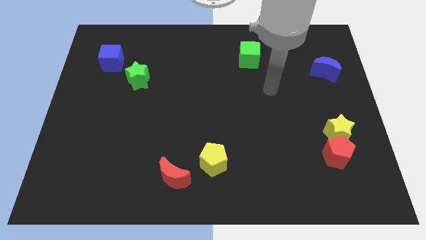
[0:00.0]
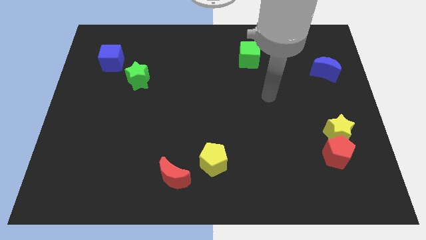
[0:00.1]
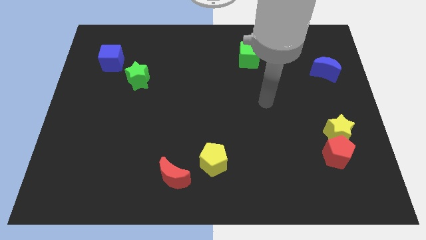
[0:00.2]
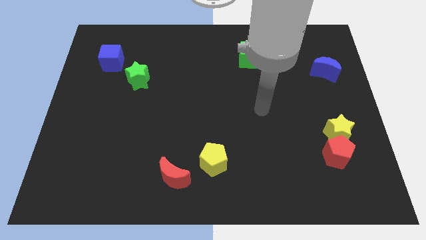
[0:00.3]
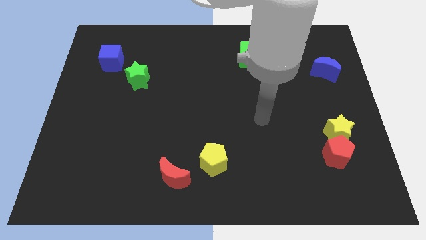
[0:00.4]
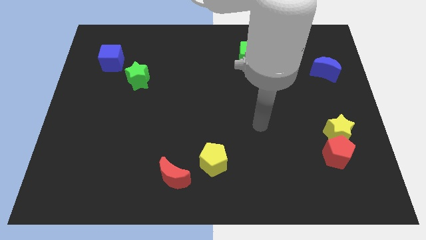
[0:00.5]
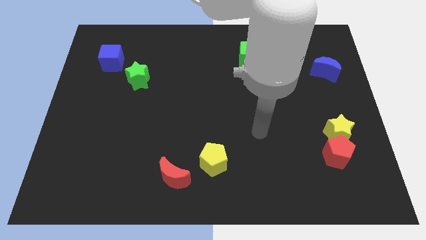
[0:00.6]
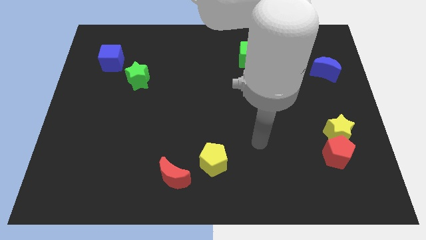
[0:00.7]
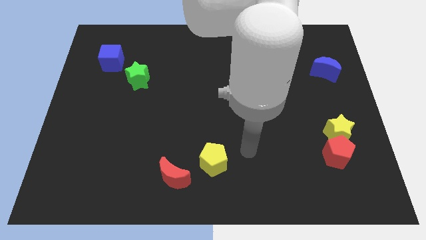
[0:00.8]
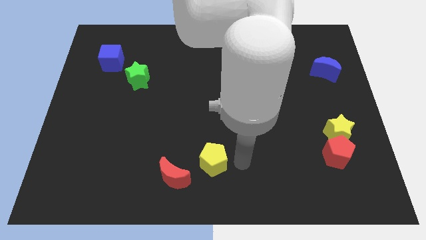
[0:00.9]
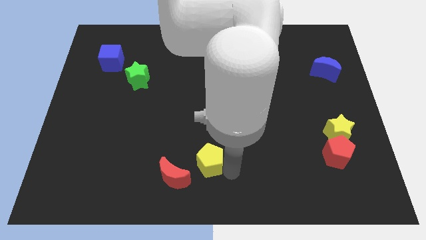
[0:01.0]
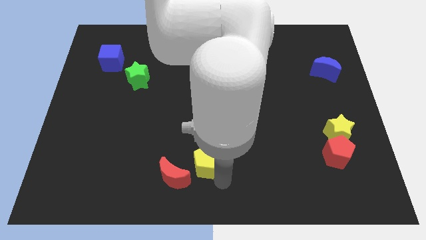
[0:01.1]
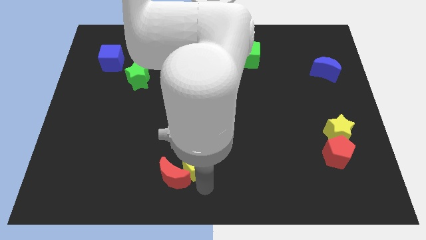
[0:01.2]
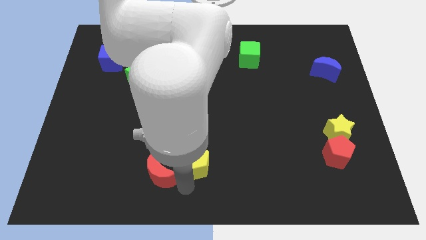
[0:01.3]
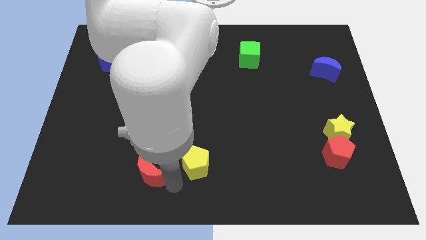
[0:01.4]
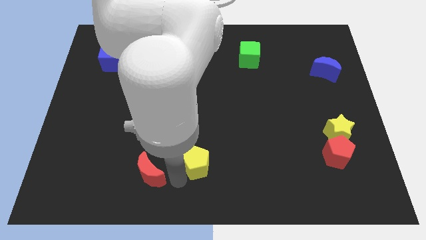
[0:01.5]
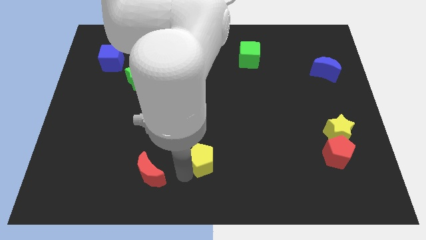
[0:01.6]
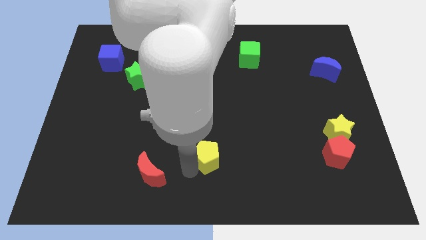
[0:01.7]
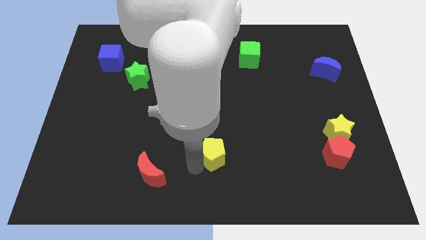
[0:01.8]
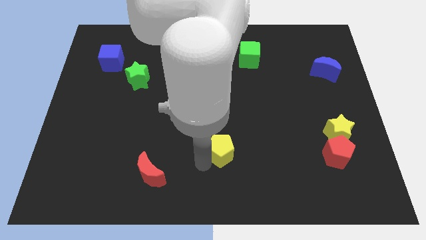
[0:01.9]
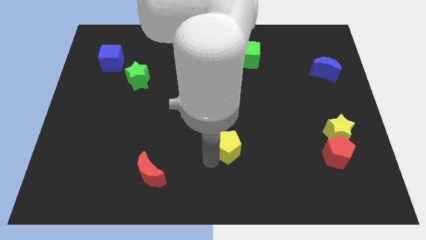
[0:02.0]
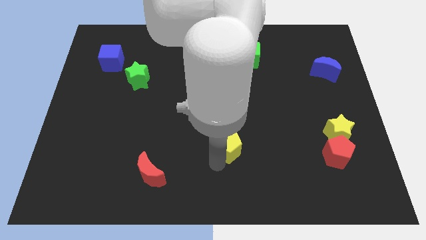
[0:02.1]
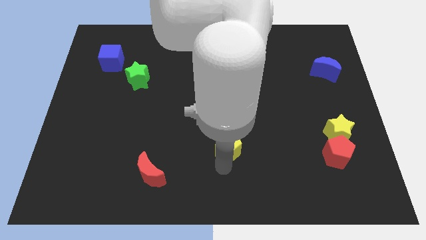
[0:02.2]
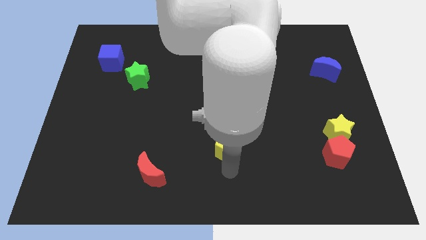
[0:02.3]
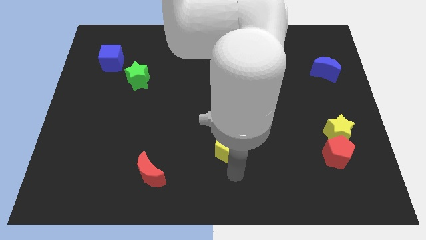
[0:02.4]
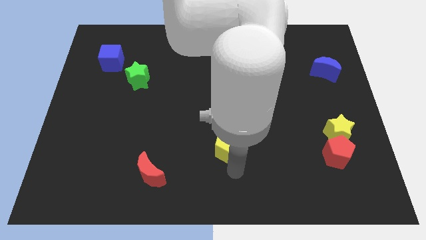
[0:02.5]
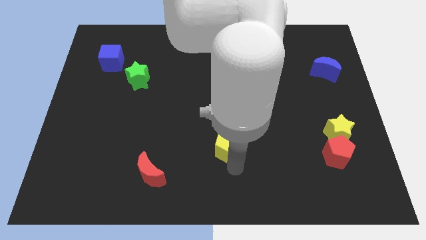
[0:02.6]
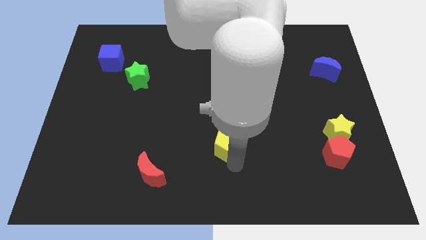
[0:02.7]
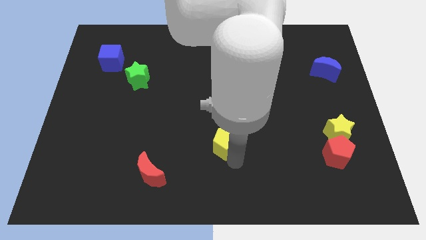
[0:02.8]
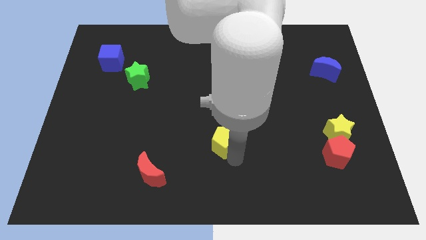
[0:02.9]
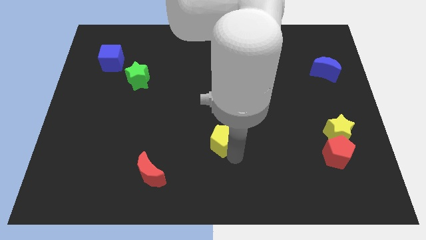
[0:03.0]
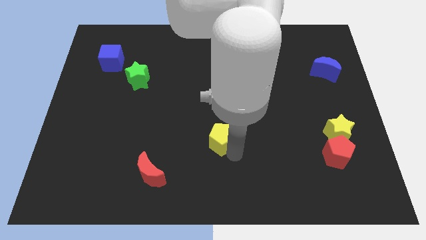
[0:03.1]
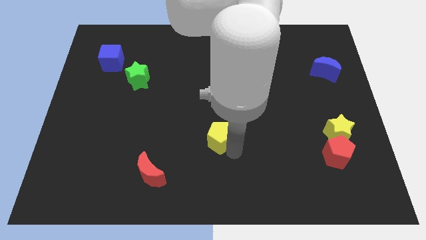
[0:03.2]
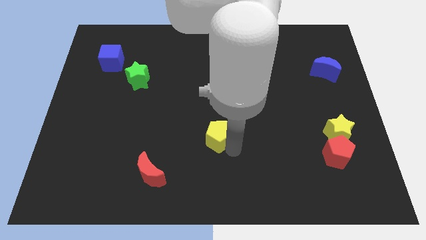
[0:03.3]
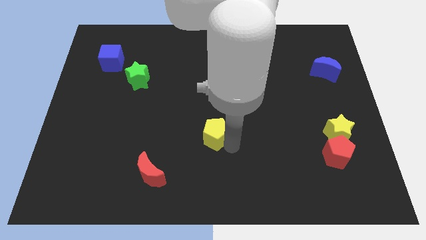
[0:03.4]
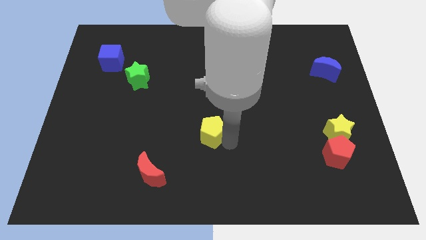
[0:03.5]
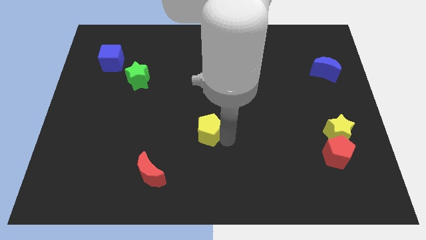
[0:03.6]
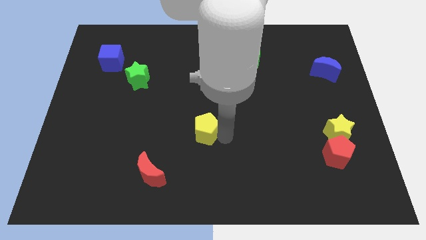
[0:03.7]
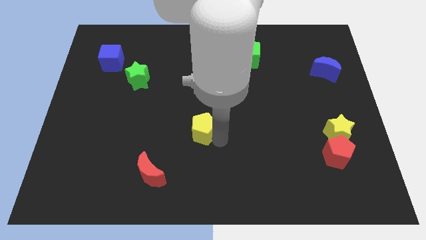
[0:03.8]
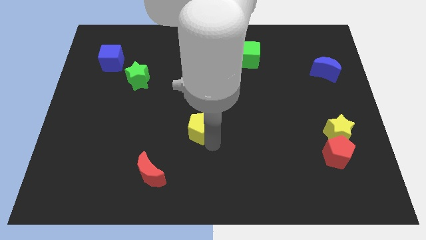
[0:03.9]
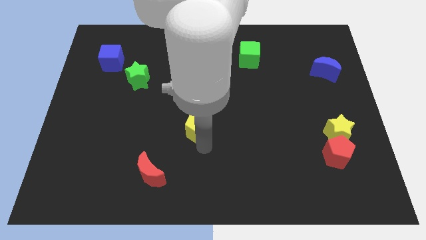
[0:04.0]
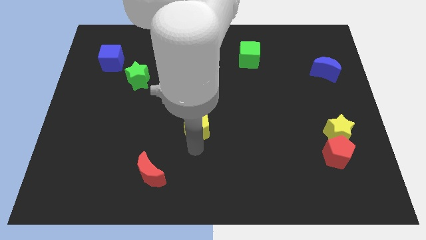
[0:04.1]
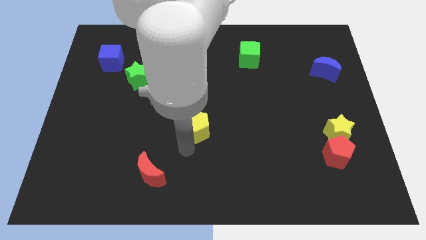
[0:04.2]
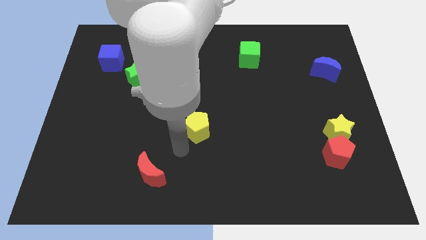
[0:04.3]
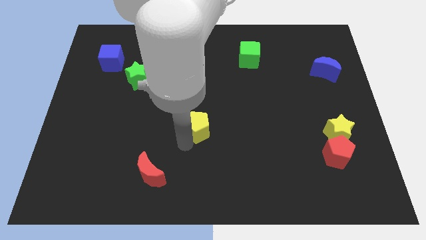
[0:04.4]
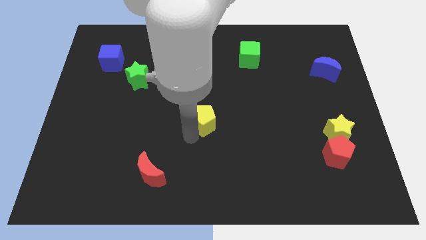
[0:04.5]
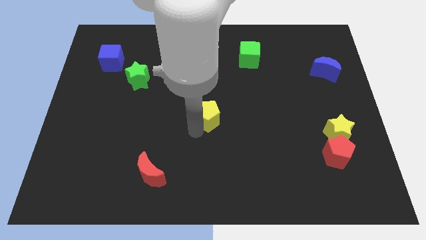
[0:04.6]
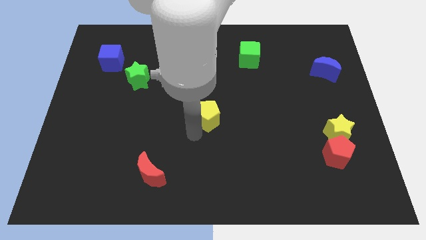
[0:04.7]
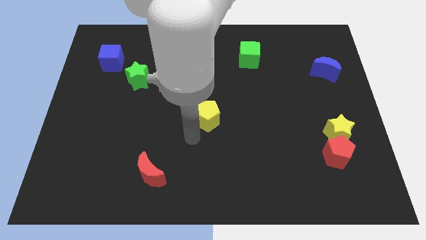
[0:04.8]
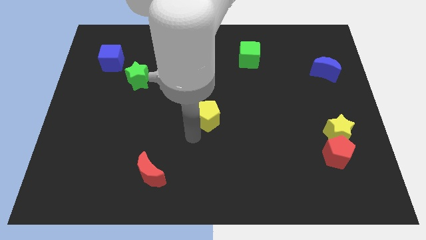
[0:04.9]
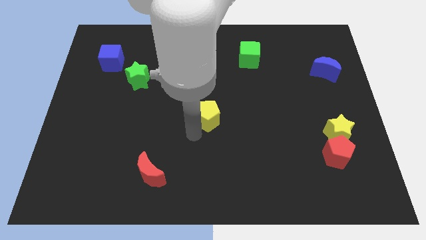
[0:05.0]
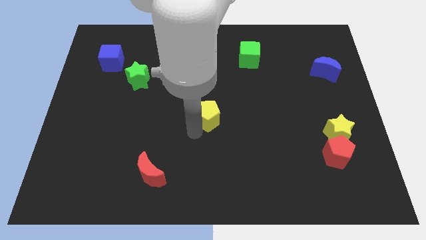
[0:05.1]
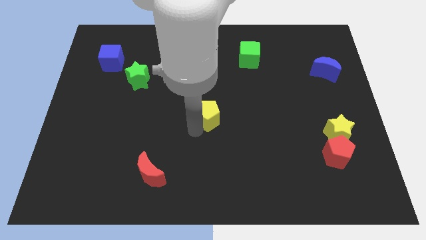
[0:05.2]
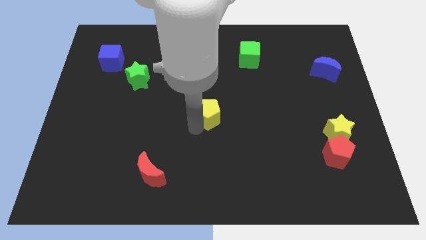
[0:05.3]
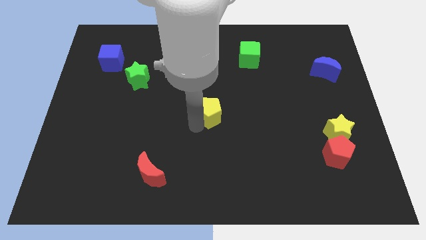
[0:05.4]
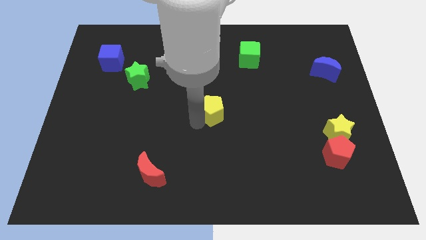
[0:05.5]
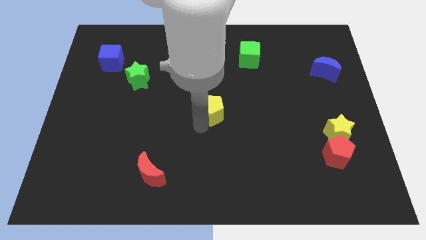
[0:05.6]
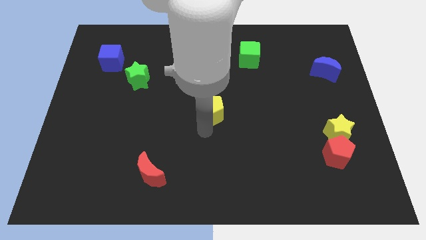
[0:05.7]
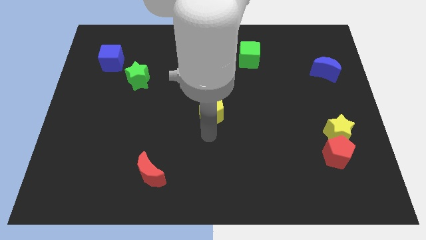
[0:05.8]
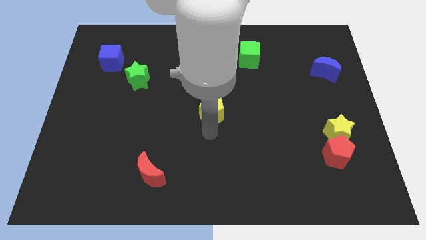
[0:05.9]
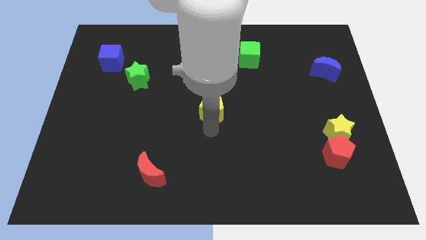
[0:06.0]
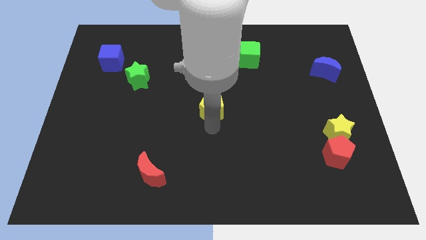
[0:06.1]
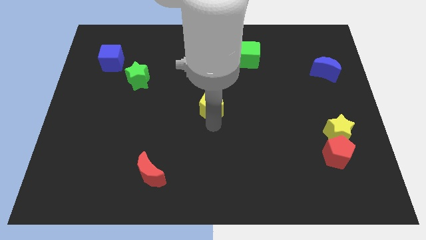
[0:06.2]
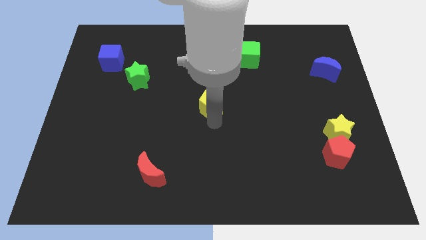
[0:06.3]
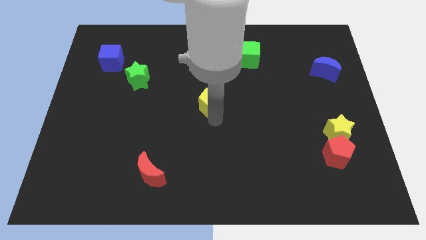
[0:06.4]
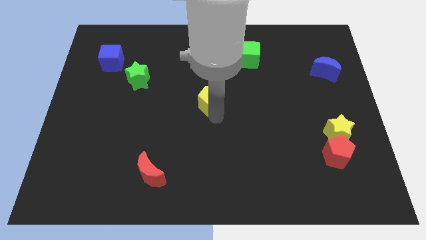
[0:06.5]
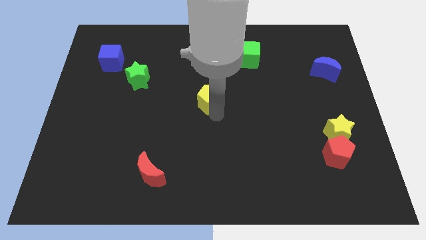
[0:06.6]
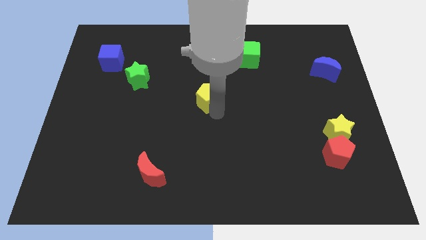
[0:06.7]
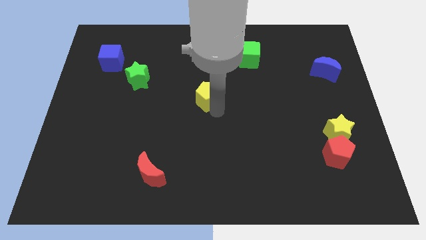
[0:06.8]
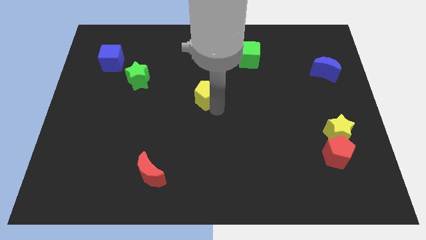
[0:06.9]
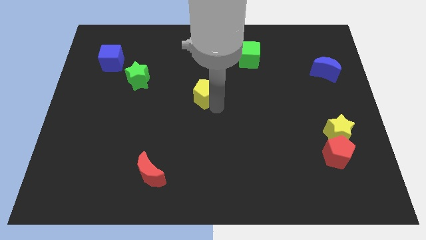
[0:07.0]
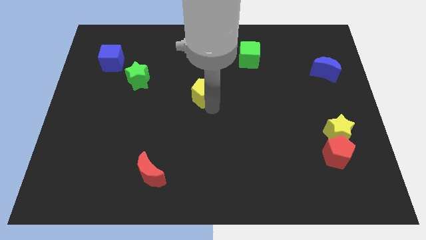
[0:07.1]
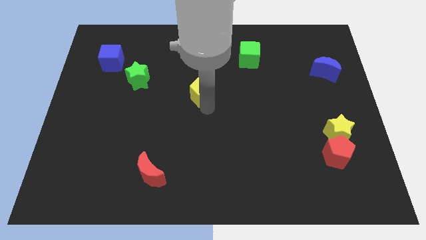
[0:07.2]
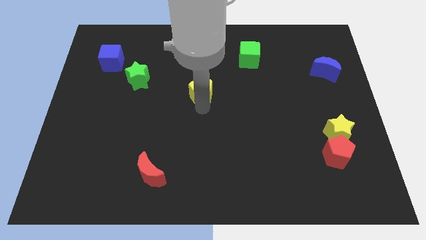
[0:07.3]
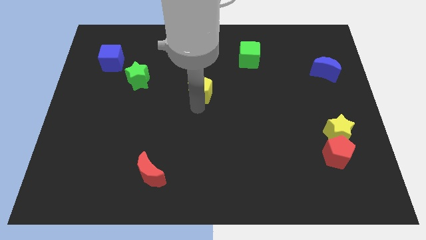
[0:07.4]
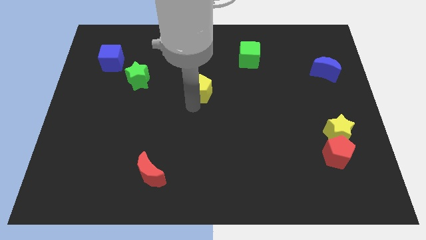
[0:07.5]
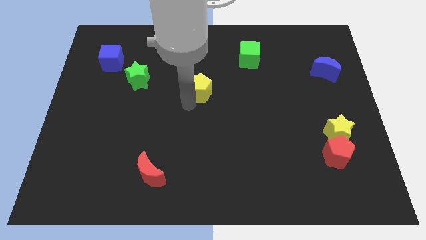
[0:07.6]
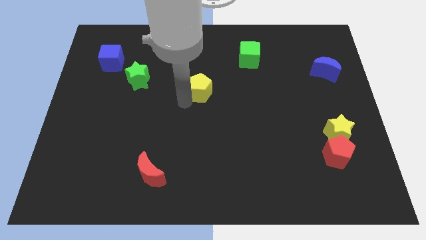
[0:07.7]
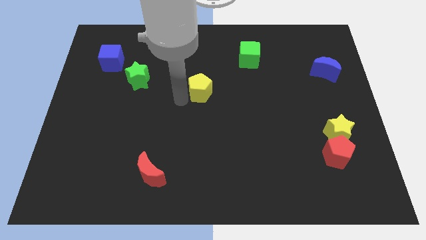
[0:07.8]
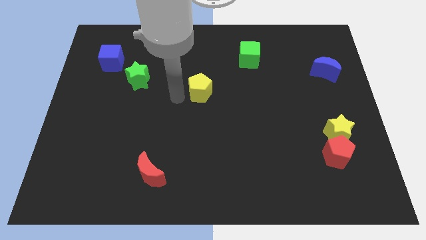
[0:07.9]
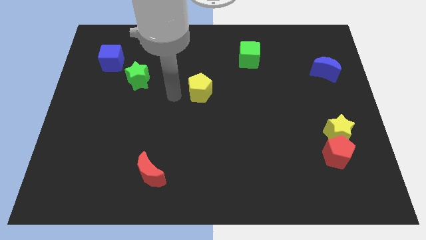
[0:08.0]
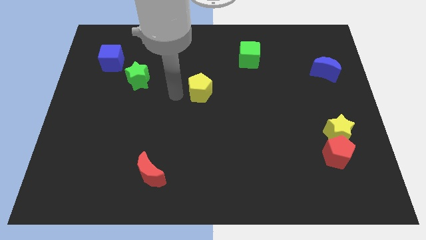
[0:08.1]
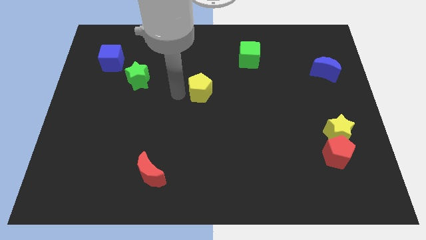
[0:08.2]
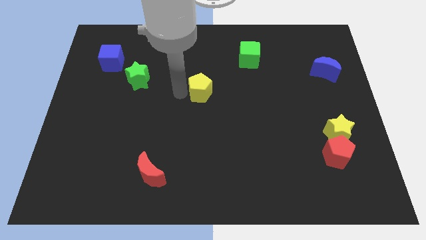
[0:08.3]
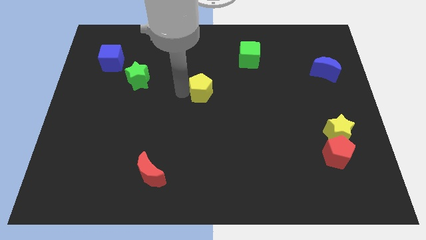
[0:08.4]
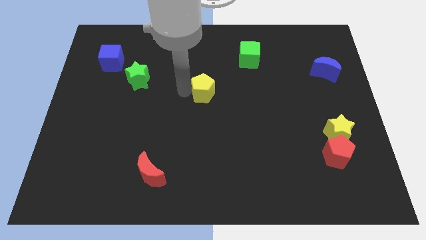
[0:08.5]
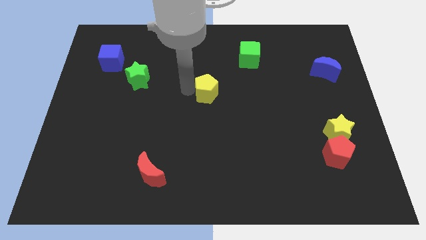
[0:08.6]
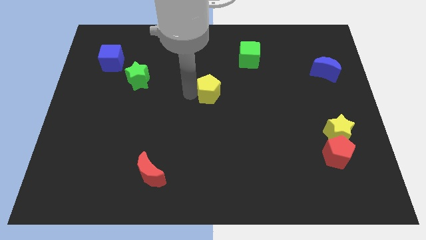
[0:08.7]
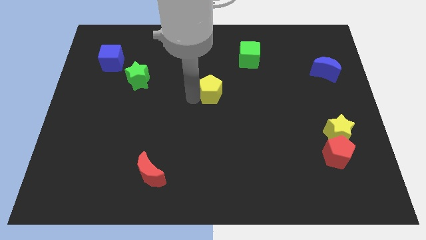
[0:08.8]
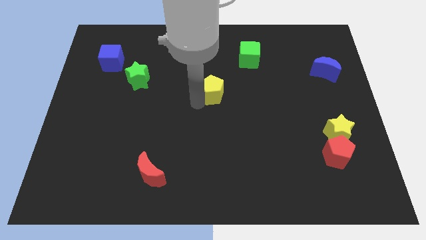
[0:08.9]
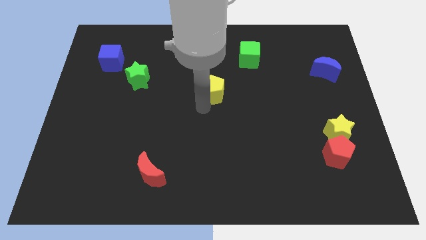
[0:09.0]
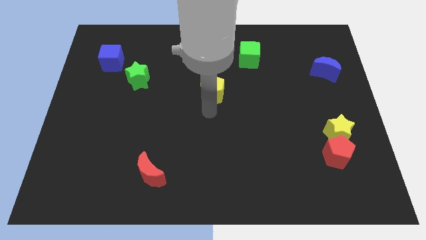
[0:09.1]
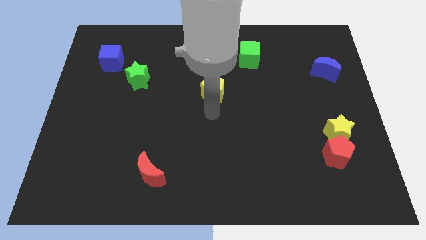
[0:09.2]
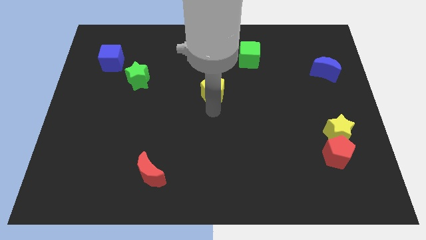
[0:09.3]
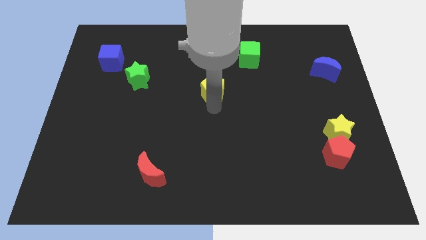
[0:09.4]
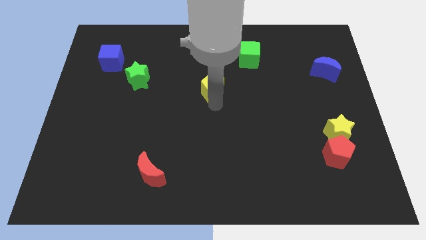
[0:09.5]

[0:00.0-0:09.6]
move the yellow pentagon up
